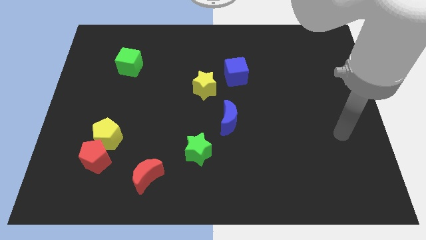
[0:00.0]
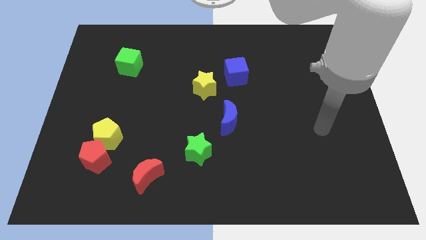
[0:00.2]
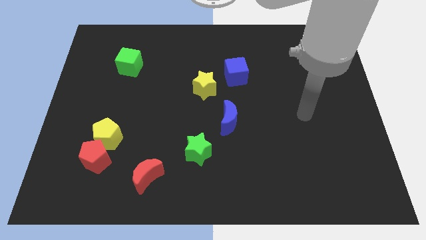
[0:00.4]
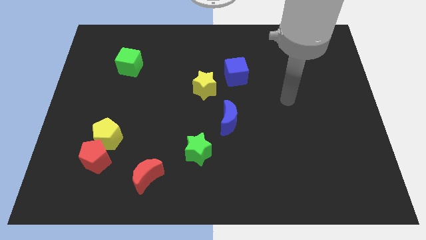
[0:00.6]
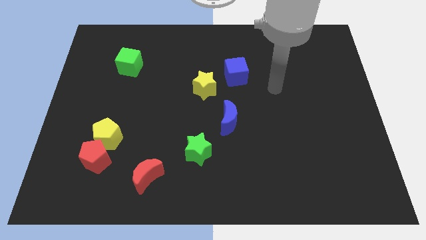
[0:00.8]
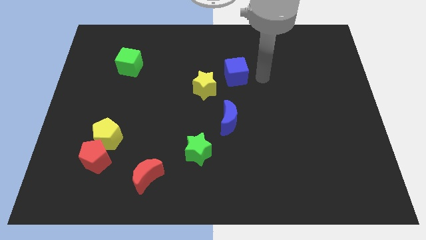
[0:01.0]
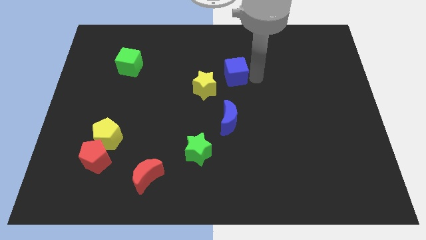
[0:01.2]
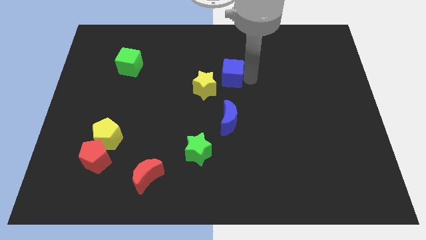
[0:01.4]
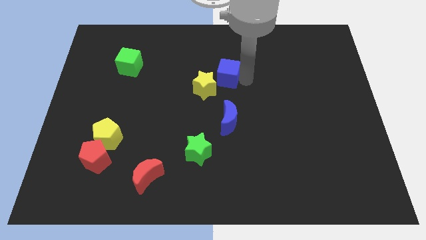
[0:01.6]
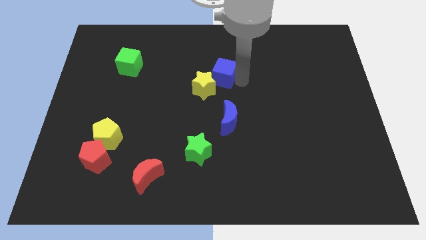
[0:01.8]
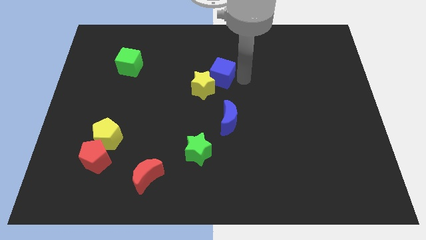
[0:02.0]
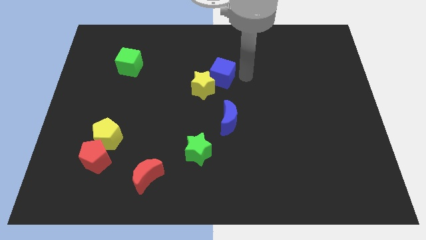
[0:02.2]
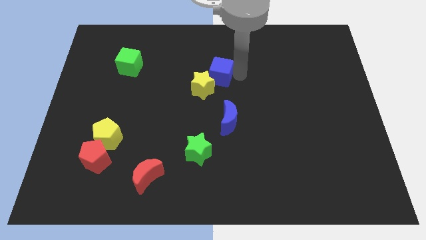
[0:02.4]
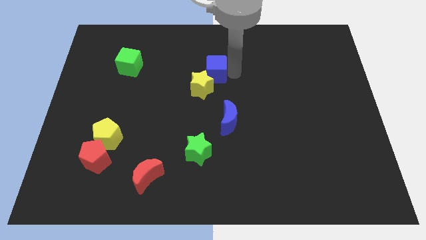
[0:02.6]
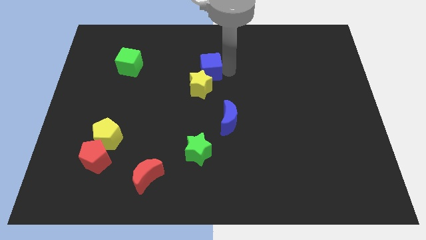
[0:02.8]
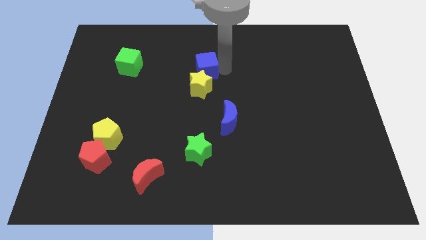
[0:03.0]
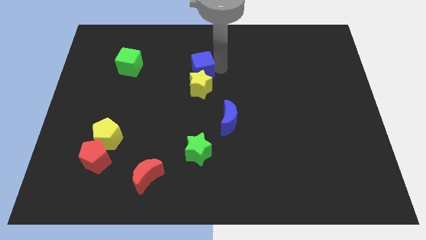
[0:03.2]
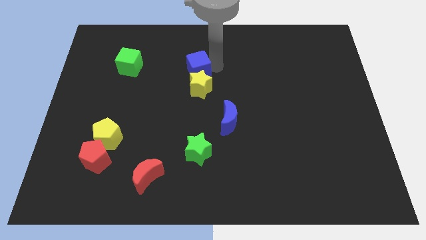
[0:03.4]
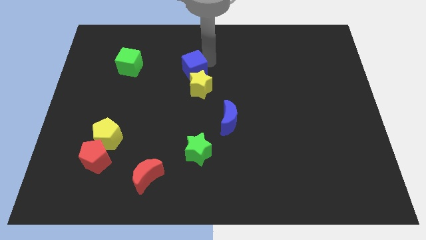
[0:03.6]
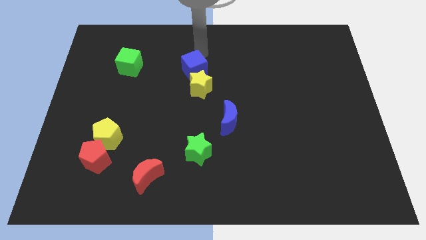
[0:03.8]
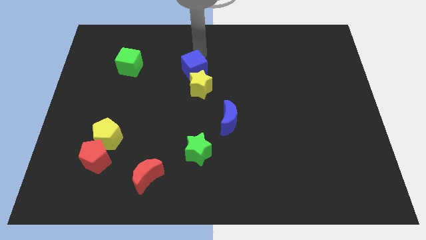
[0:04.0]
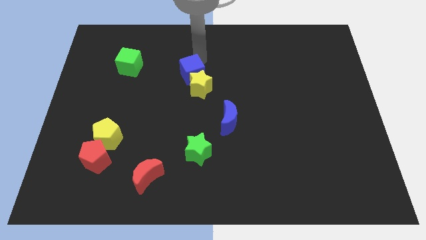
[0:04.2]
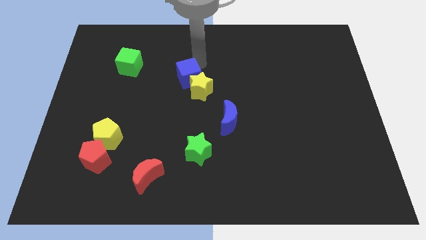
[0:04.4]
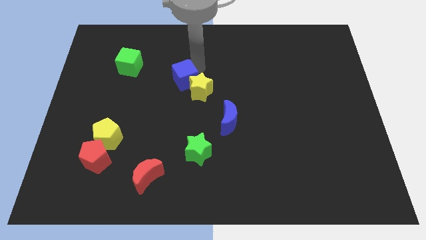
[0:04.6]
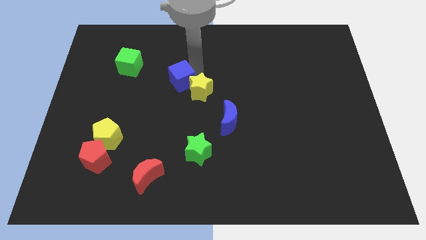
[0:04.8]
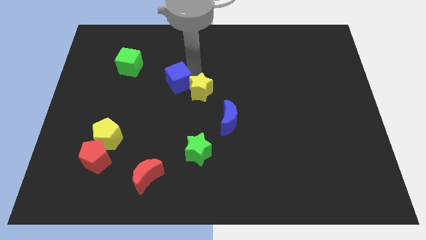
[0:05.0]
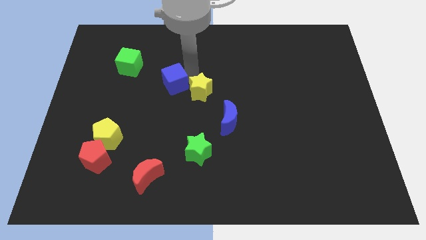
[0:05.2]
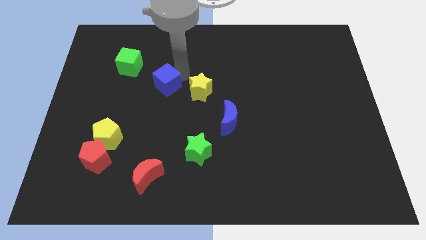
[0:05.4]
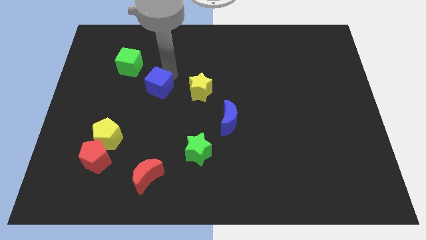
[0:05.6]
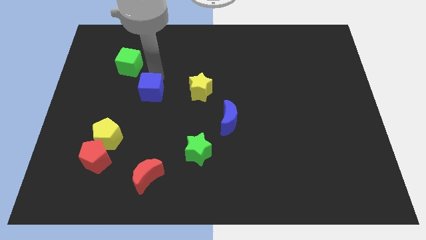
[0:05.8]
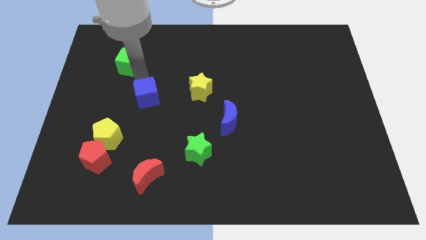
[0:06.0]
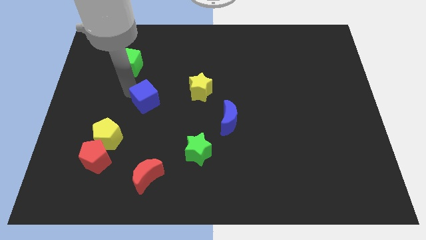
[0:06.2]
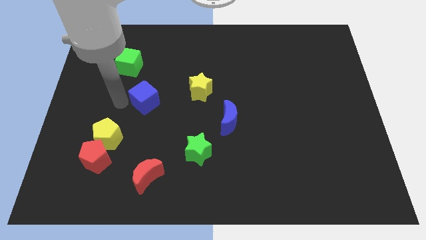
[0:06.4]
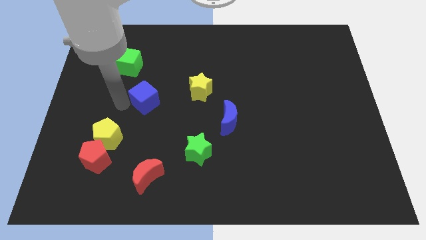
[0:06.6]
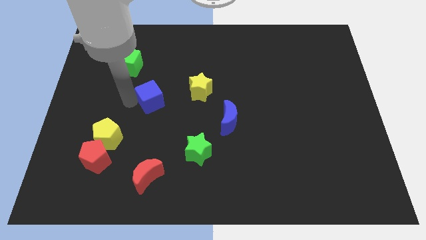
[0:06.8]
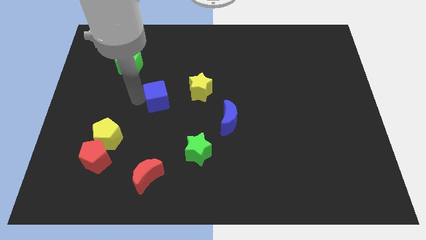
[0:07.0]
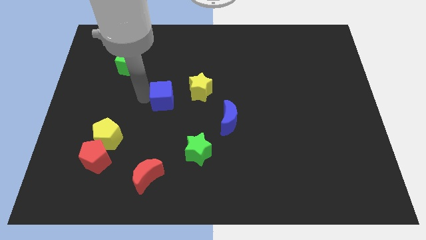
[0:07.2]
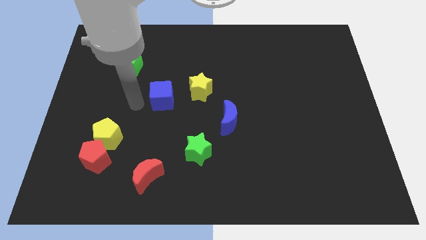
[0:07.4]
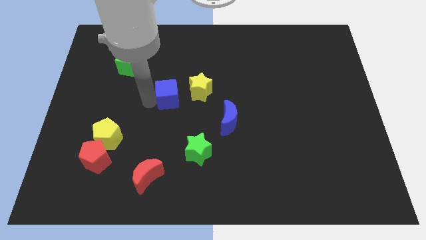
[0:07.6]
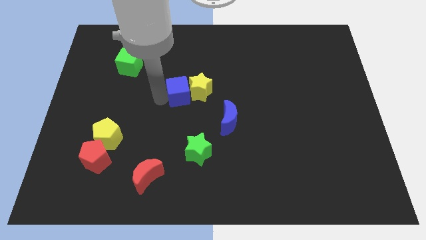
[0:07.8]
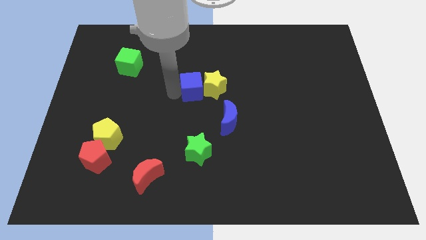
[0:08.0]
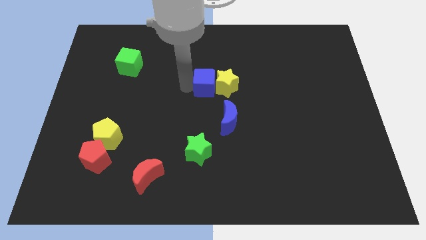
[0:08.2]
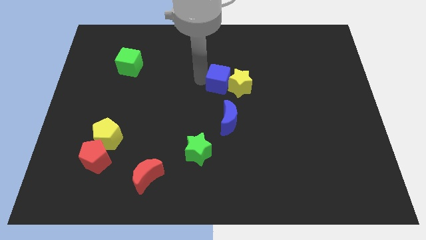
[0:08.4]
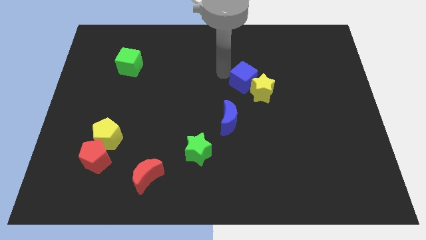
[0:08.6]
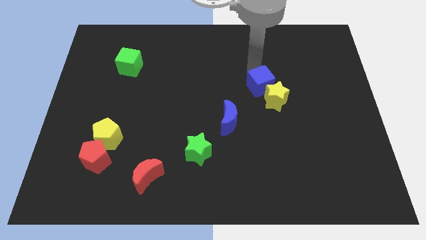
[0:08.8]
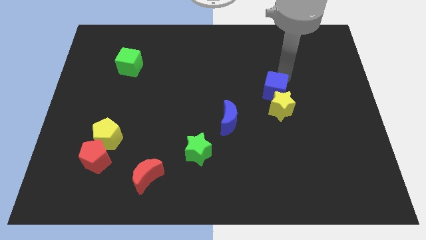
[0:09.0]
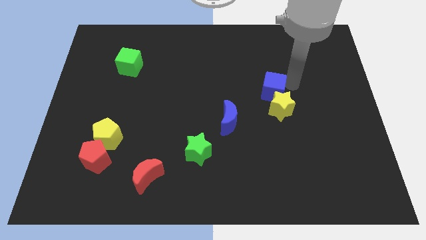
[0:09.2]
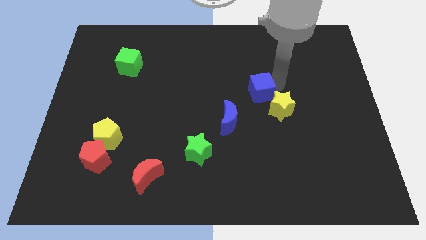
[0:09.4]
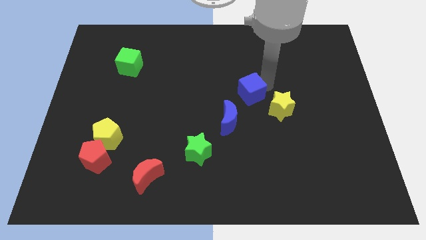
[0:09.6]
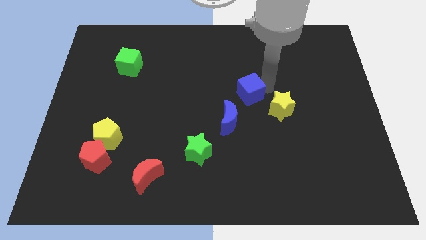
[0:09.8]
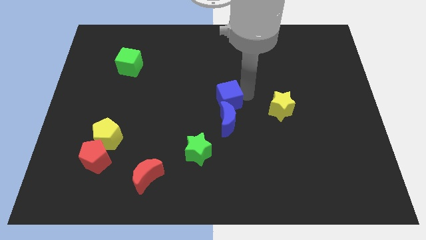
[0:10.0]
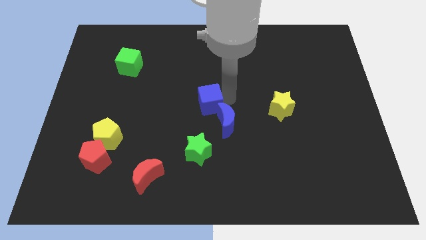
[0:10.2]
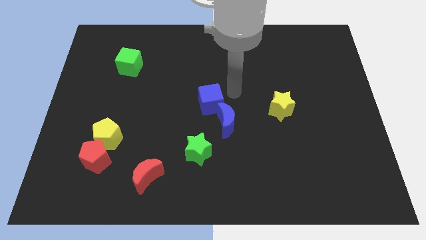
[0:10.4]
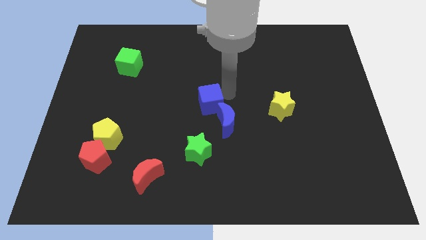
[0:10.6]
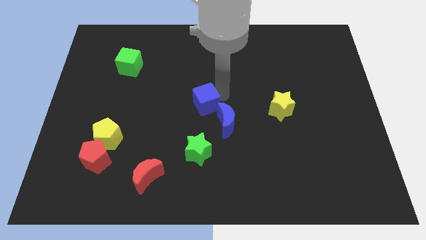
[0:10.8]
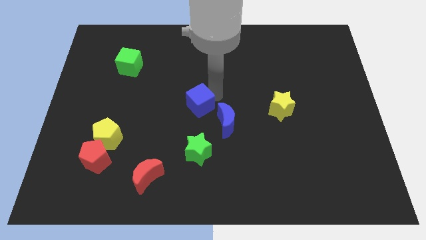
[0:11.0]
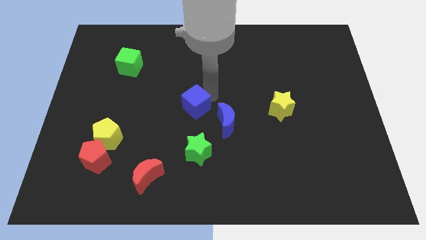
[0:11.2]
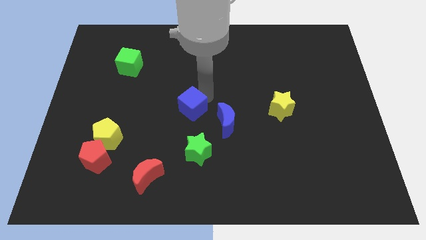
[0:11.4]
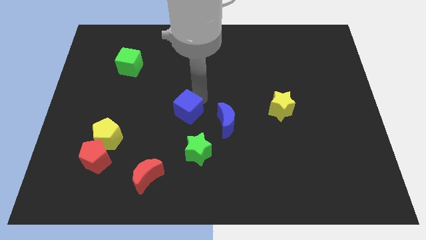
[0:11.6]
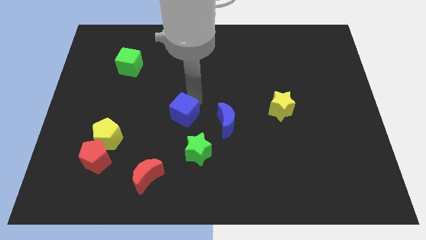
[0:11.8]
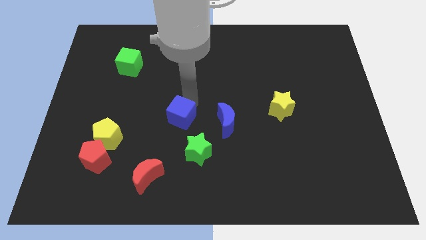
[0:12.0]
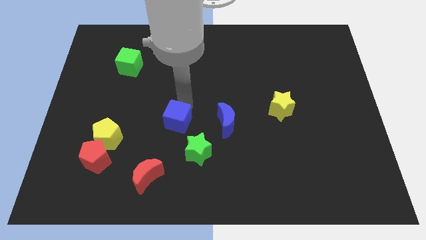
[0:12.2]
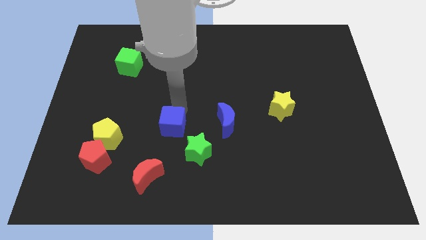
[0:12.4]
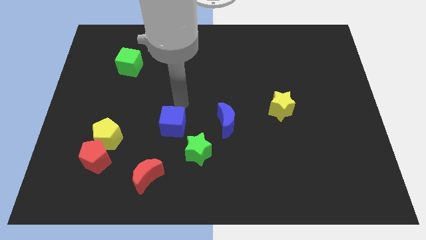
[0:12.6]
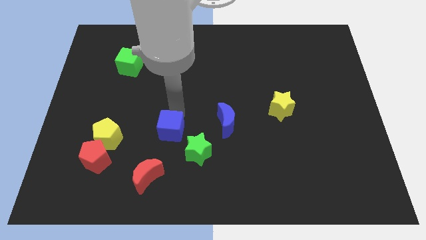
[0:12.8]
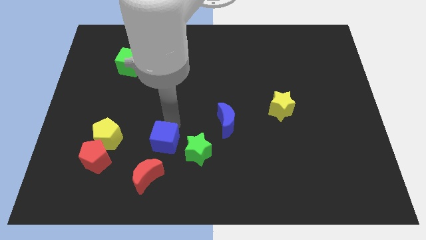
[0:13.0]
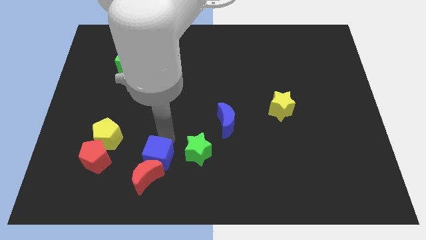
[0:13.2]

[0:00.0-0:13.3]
put the blue cube towards the red moon

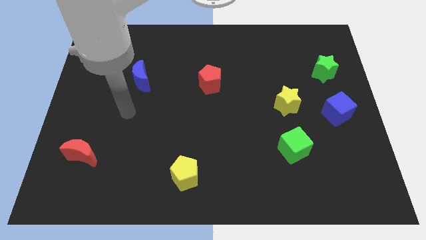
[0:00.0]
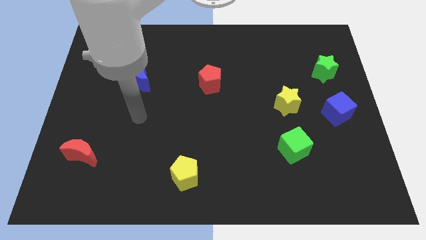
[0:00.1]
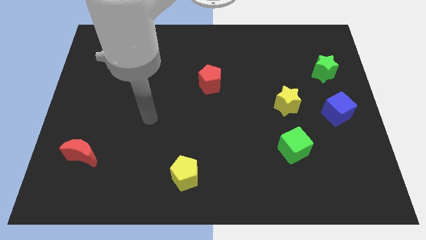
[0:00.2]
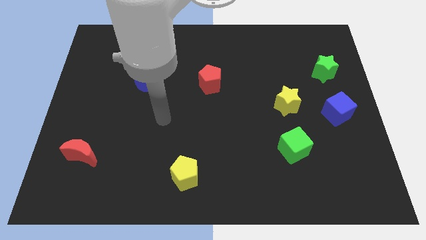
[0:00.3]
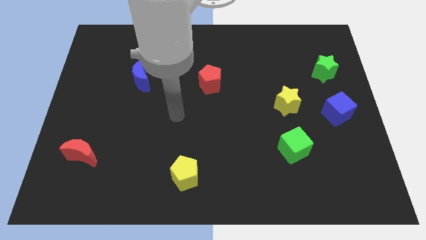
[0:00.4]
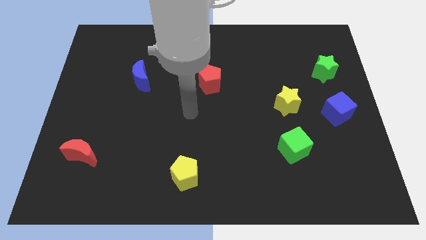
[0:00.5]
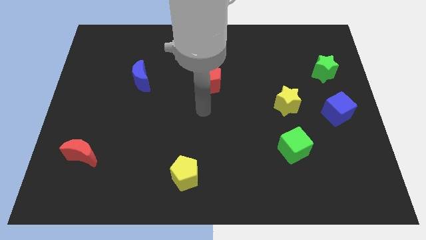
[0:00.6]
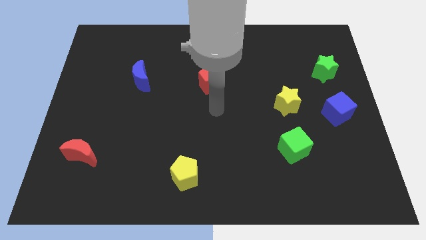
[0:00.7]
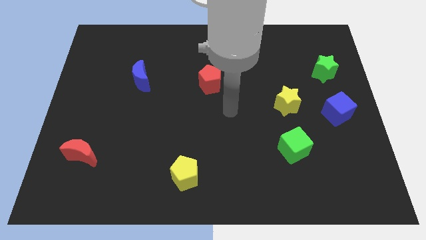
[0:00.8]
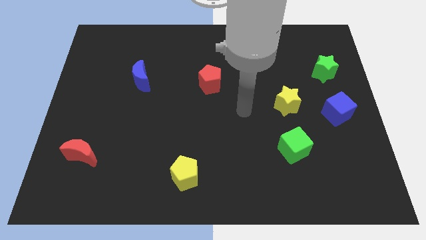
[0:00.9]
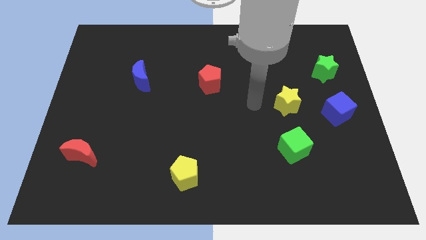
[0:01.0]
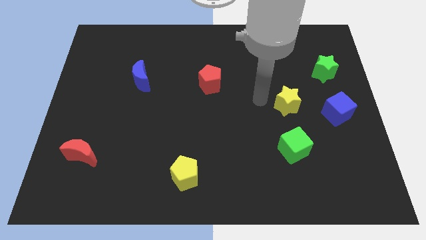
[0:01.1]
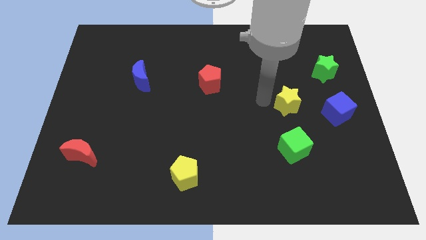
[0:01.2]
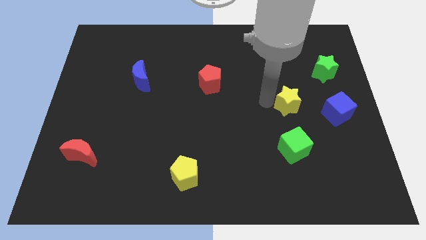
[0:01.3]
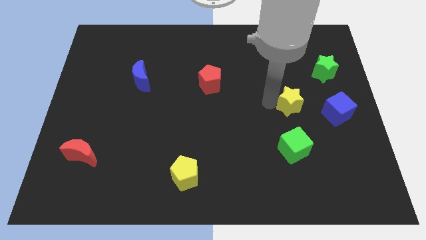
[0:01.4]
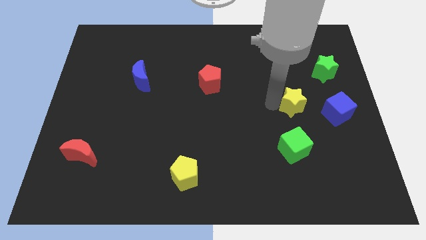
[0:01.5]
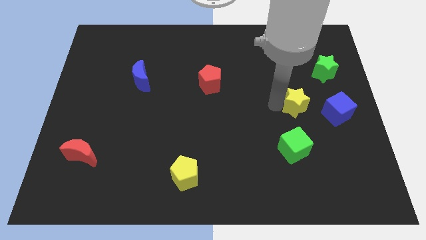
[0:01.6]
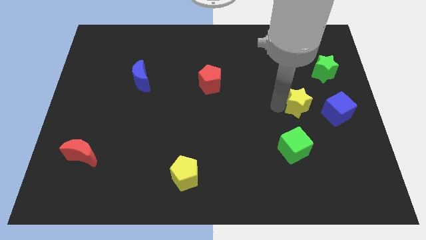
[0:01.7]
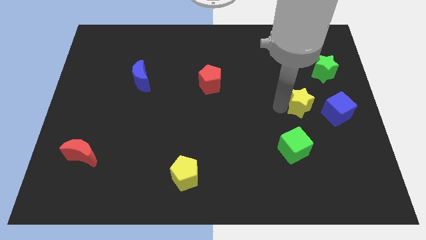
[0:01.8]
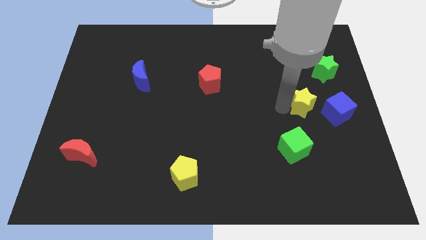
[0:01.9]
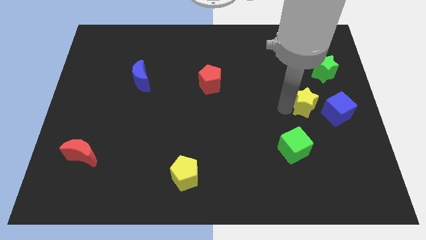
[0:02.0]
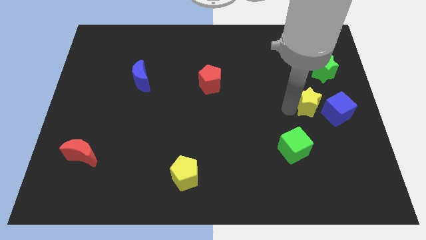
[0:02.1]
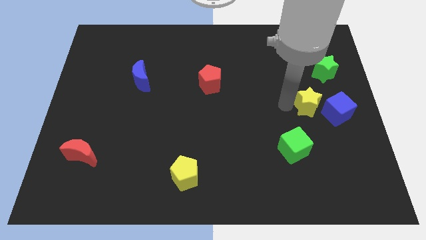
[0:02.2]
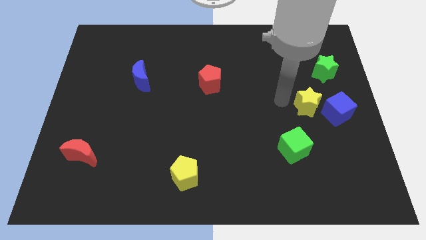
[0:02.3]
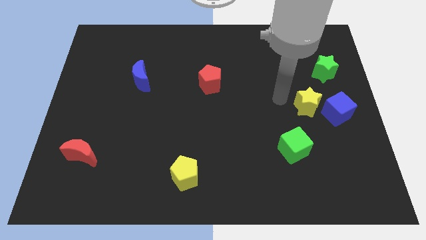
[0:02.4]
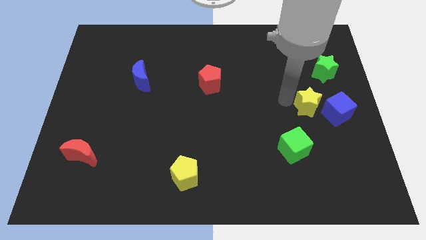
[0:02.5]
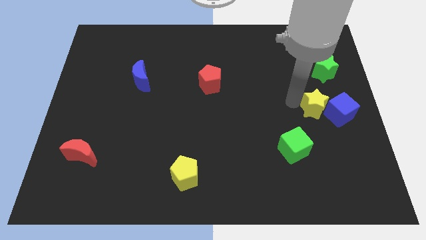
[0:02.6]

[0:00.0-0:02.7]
slide the yellow star towards the blue cube
